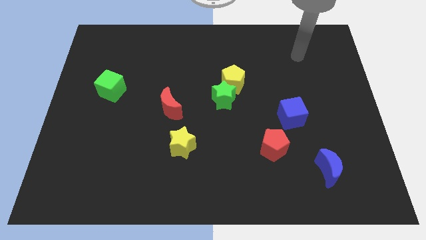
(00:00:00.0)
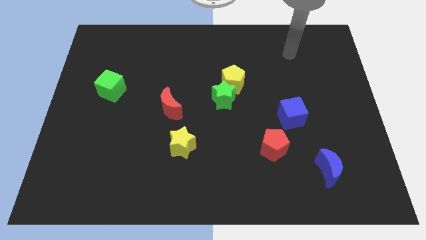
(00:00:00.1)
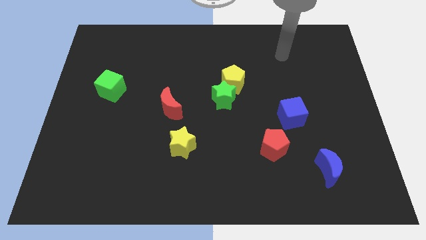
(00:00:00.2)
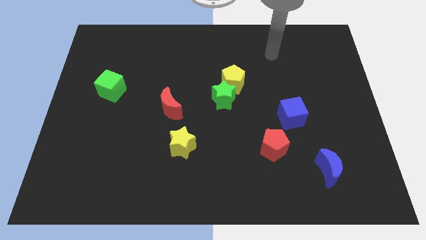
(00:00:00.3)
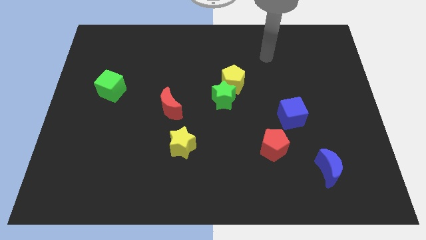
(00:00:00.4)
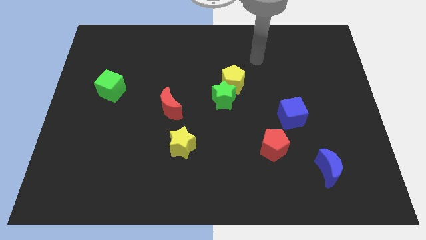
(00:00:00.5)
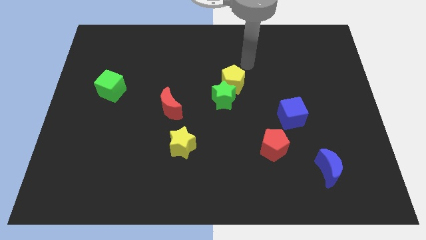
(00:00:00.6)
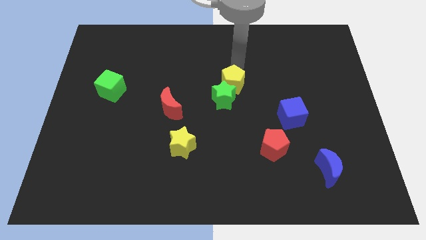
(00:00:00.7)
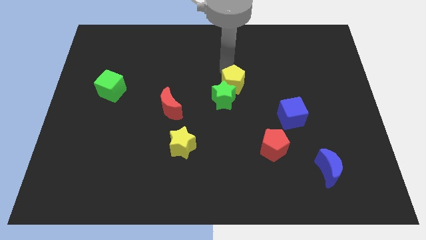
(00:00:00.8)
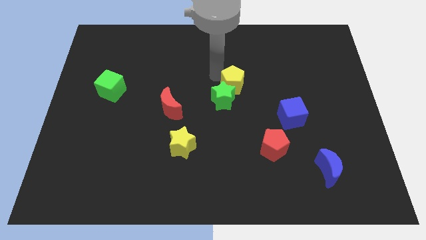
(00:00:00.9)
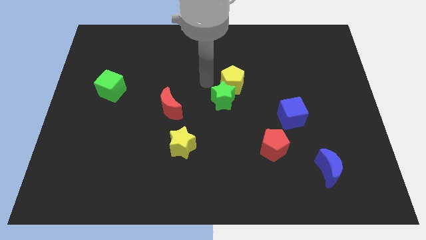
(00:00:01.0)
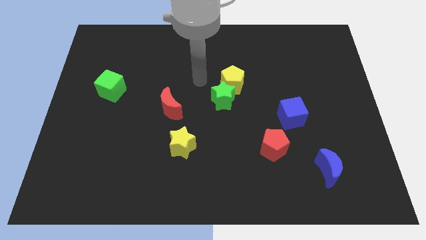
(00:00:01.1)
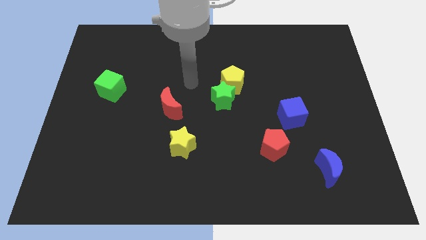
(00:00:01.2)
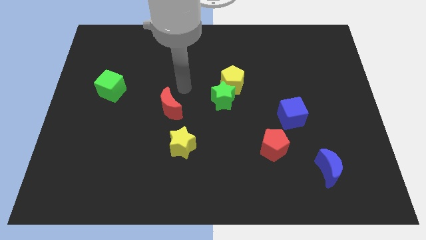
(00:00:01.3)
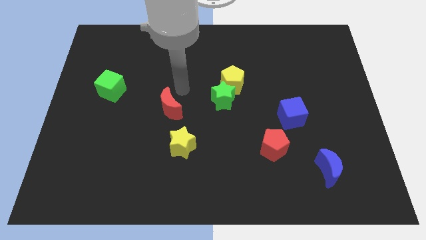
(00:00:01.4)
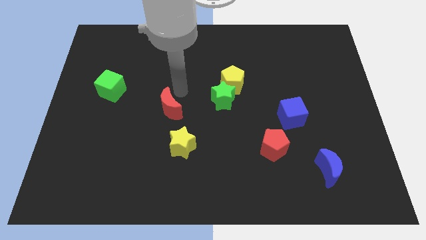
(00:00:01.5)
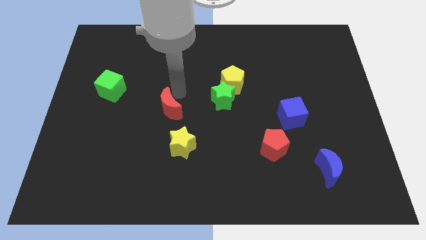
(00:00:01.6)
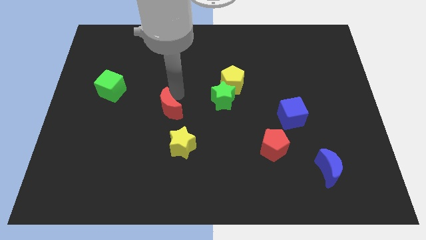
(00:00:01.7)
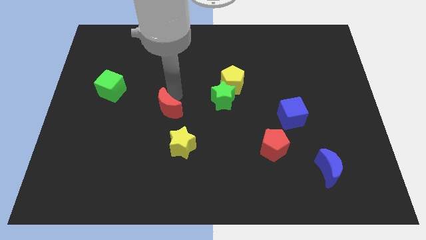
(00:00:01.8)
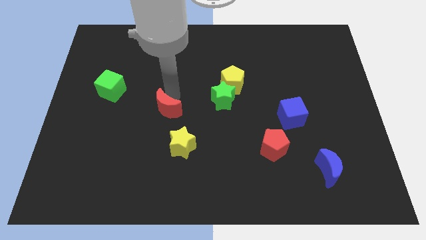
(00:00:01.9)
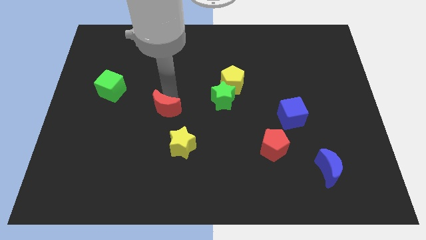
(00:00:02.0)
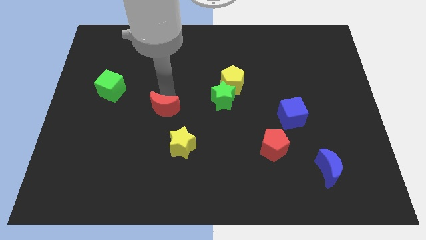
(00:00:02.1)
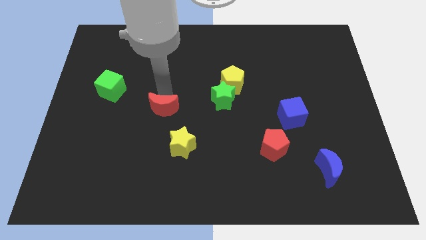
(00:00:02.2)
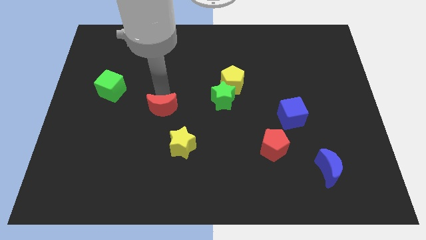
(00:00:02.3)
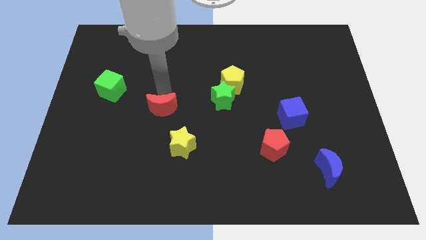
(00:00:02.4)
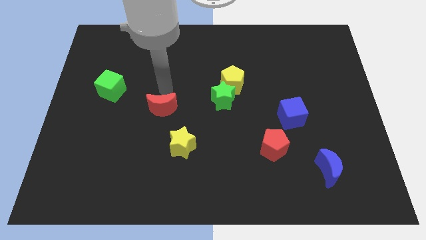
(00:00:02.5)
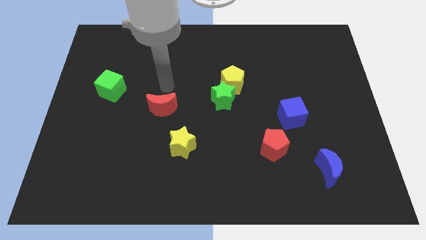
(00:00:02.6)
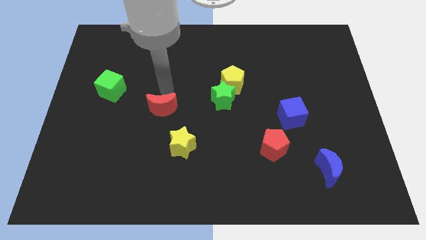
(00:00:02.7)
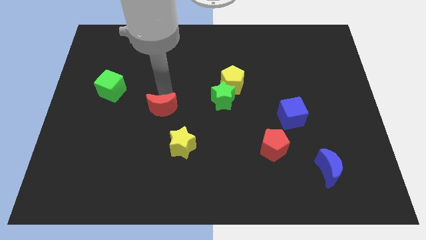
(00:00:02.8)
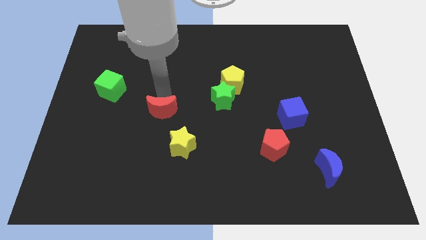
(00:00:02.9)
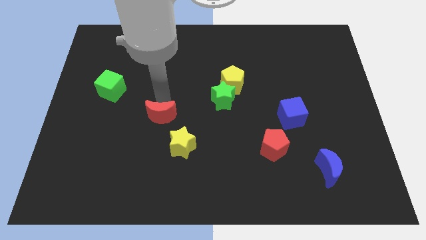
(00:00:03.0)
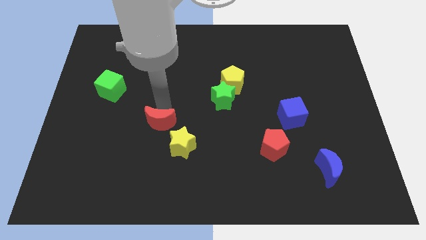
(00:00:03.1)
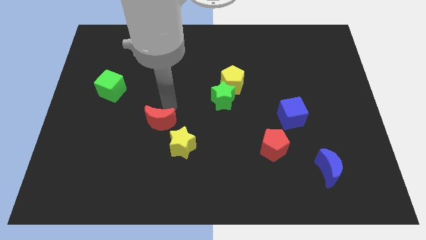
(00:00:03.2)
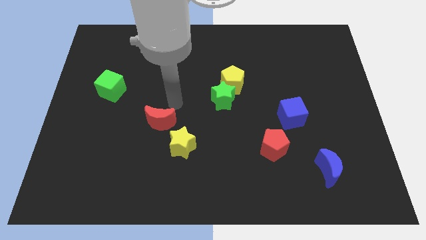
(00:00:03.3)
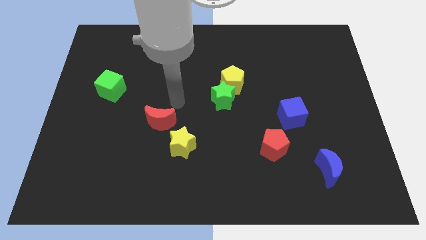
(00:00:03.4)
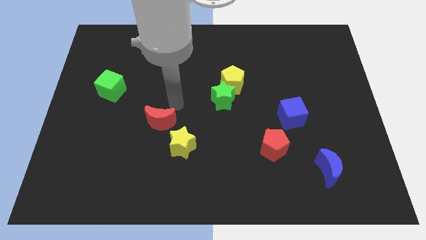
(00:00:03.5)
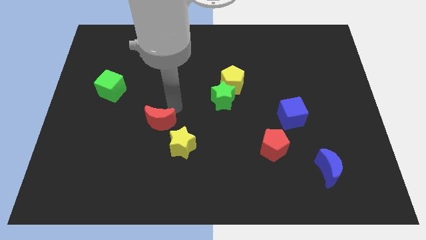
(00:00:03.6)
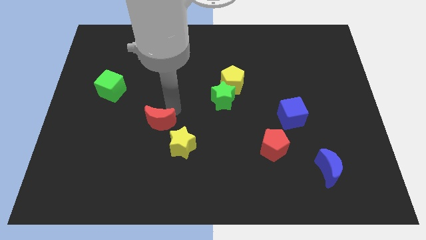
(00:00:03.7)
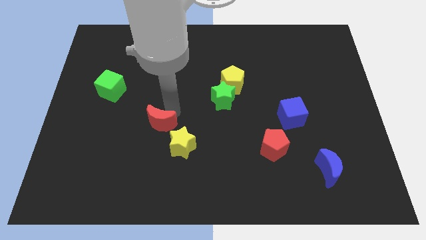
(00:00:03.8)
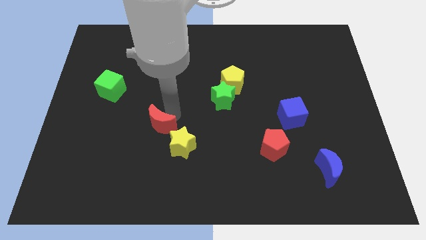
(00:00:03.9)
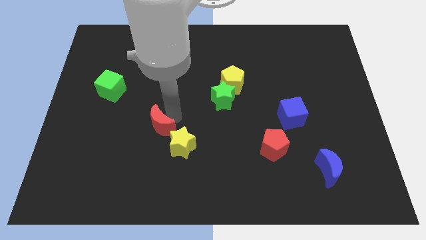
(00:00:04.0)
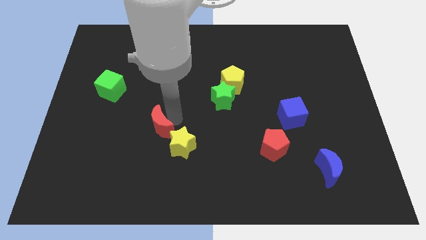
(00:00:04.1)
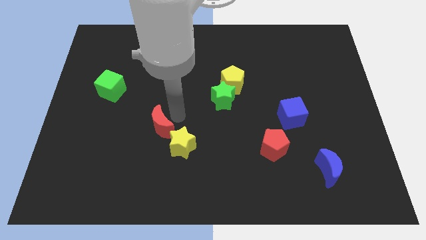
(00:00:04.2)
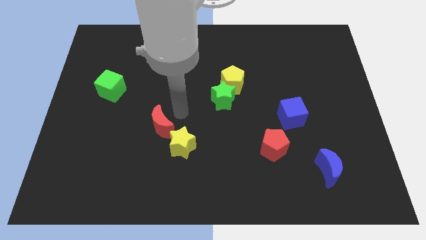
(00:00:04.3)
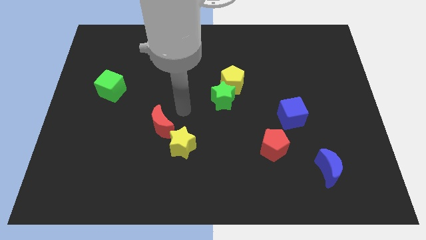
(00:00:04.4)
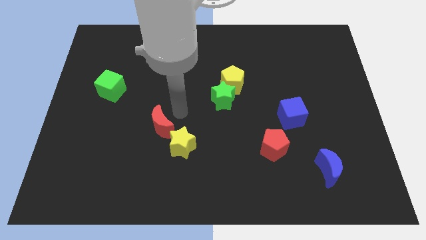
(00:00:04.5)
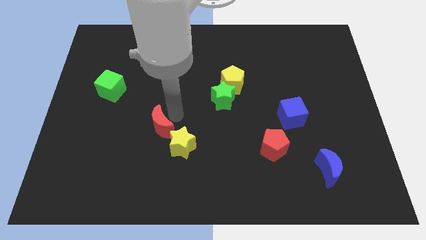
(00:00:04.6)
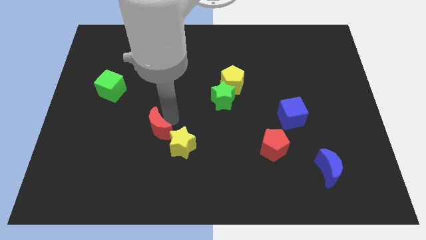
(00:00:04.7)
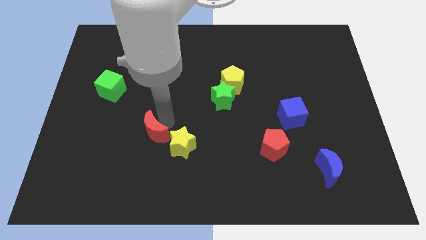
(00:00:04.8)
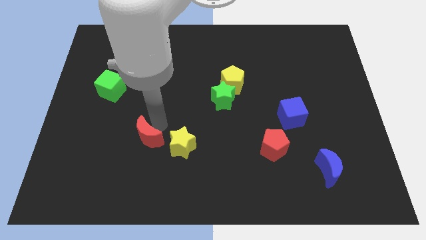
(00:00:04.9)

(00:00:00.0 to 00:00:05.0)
slightly move the red moon down

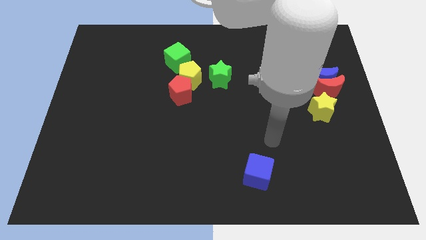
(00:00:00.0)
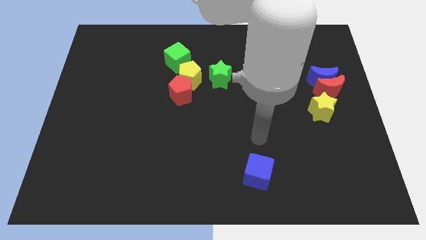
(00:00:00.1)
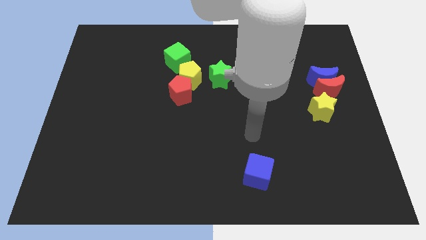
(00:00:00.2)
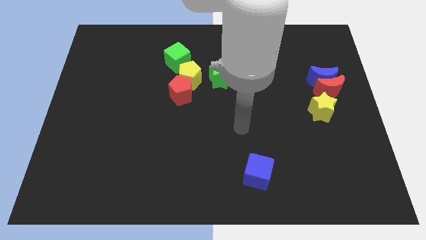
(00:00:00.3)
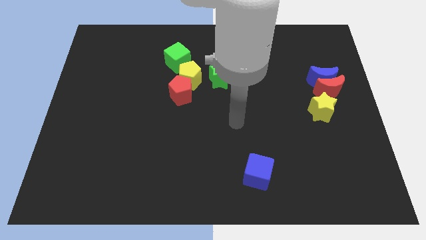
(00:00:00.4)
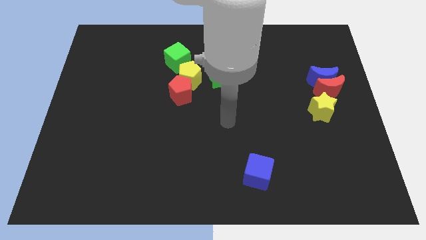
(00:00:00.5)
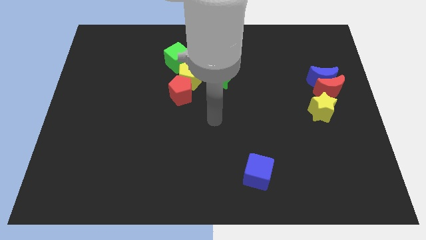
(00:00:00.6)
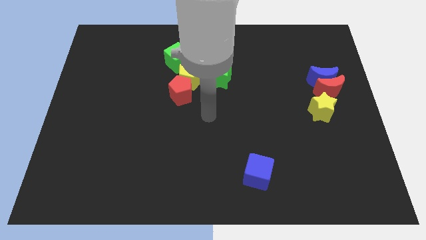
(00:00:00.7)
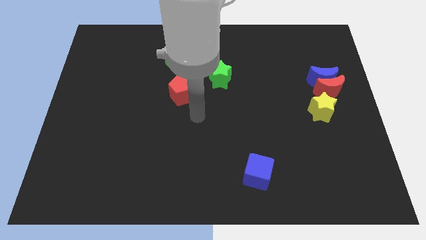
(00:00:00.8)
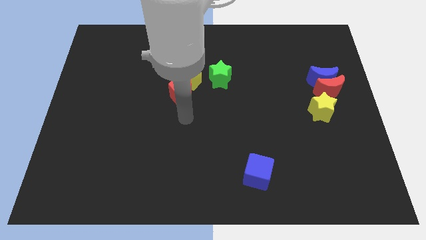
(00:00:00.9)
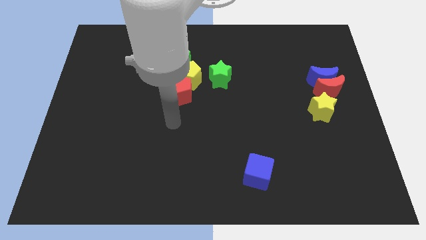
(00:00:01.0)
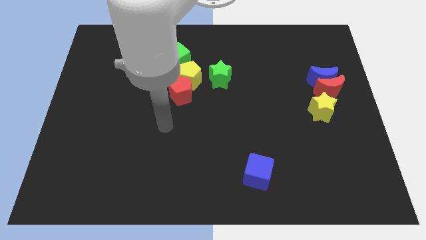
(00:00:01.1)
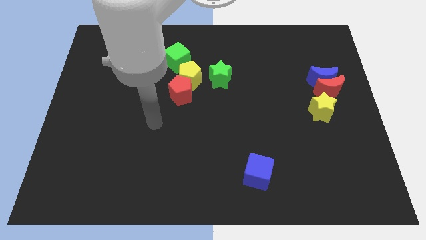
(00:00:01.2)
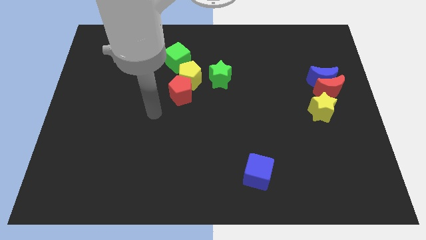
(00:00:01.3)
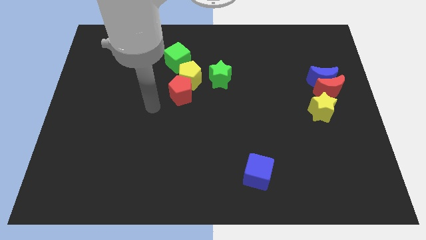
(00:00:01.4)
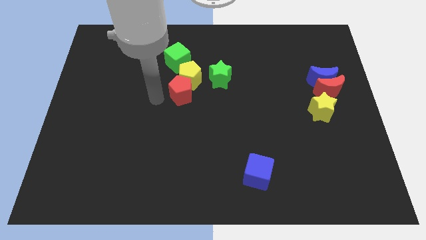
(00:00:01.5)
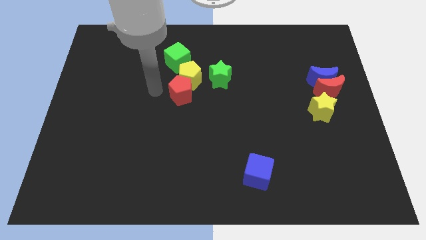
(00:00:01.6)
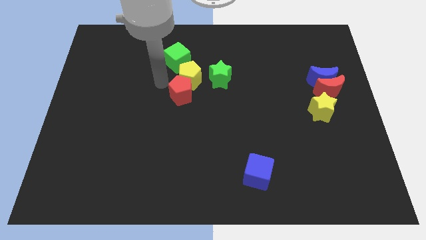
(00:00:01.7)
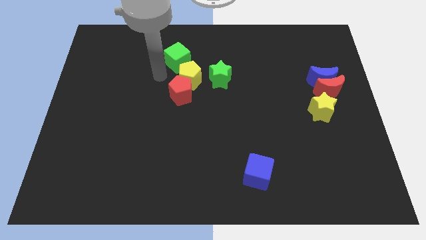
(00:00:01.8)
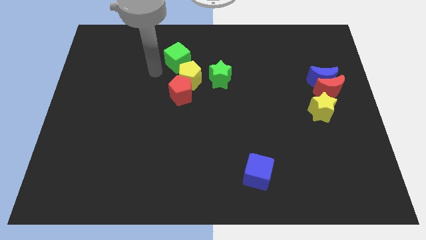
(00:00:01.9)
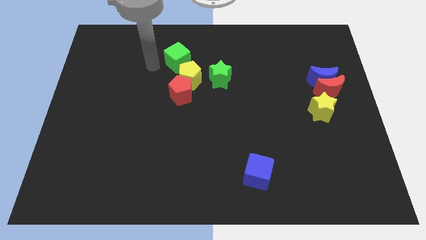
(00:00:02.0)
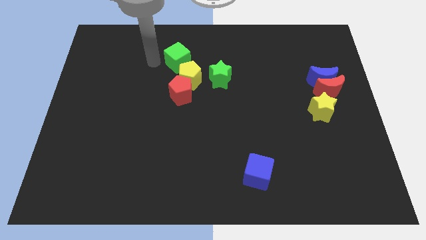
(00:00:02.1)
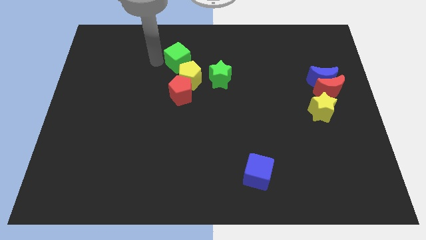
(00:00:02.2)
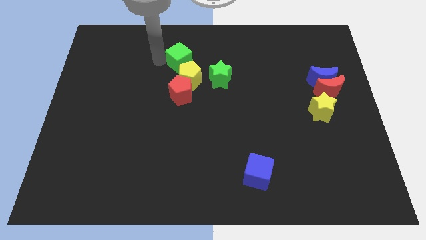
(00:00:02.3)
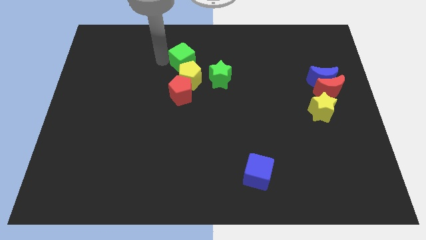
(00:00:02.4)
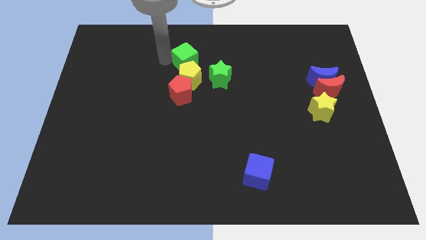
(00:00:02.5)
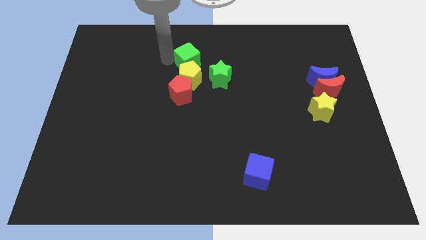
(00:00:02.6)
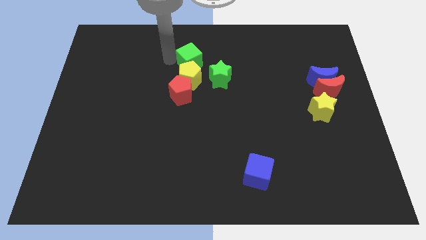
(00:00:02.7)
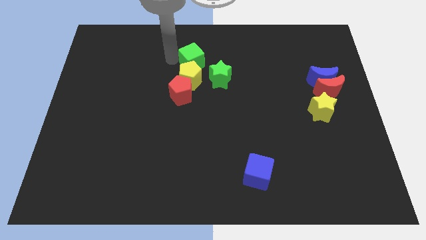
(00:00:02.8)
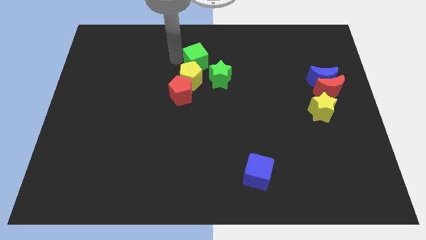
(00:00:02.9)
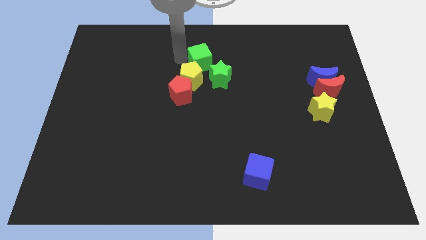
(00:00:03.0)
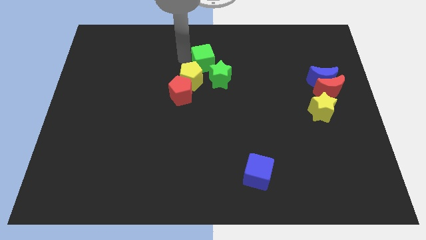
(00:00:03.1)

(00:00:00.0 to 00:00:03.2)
slightly slide the green cube to the right
